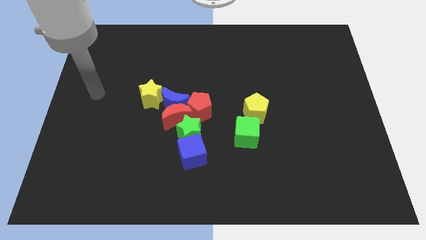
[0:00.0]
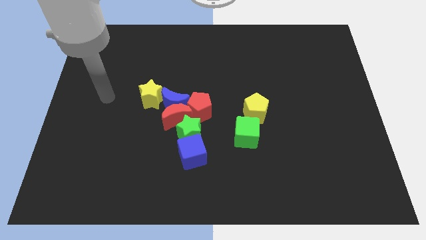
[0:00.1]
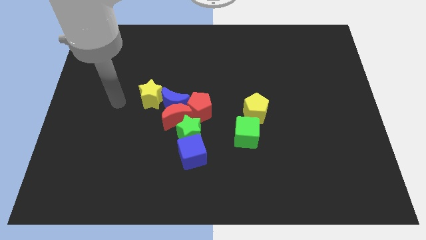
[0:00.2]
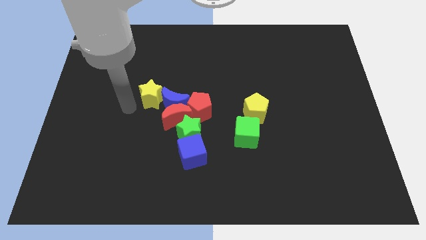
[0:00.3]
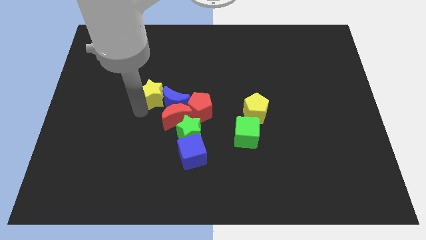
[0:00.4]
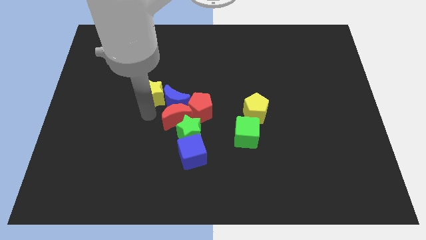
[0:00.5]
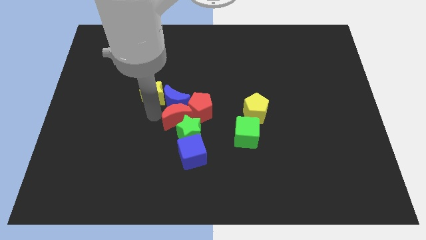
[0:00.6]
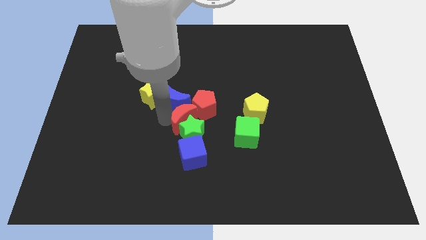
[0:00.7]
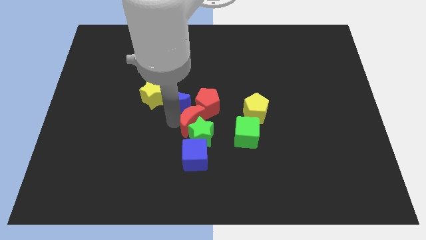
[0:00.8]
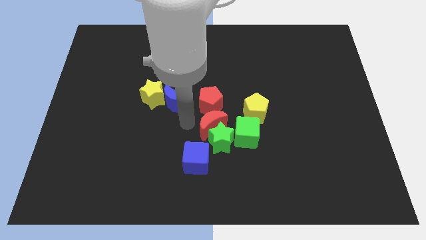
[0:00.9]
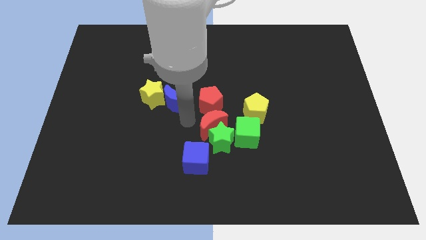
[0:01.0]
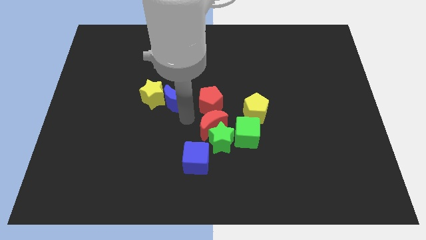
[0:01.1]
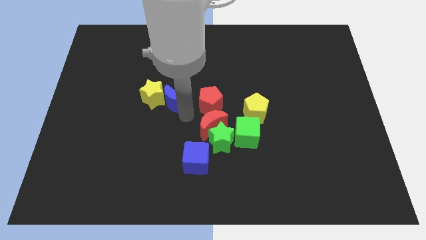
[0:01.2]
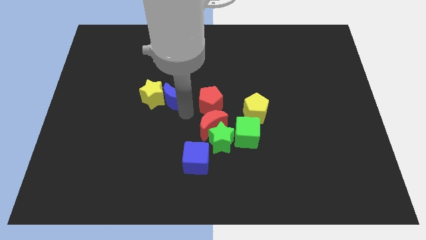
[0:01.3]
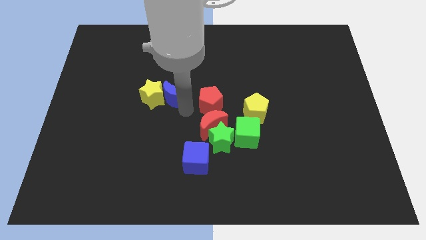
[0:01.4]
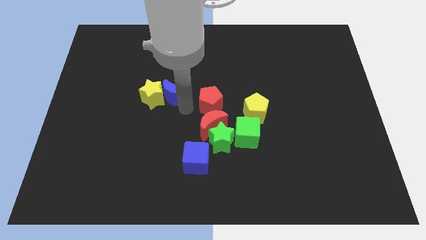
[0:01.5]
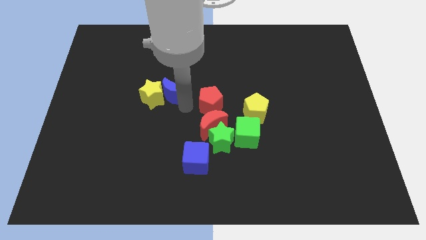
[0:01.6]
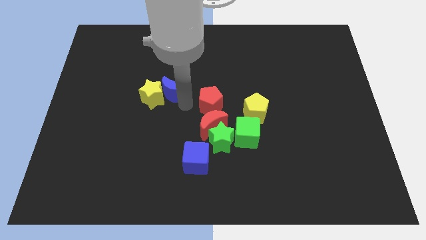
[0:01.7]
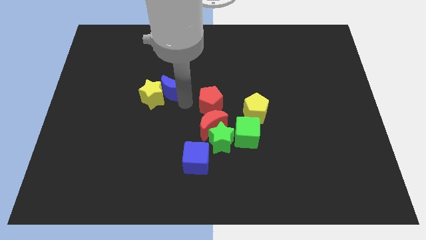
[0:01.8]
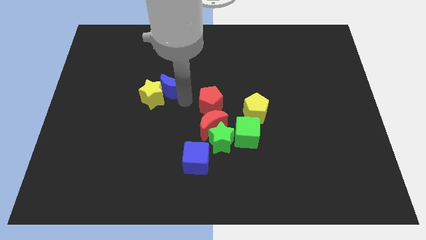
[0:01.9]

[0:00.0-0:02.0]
separate the blue moon from the clump

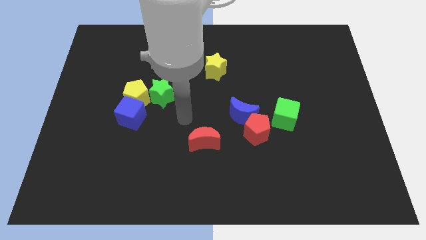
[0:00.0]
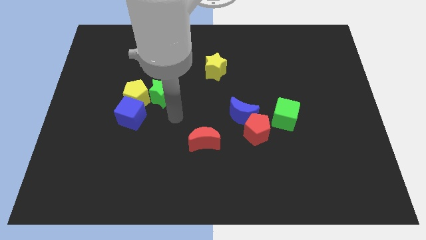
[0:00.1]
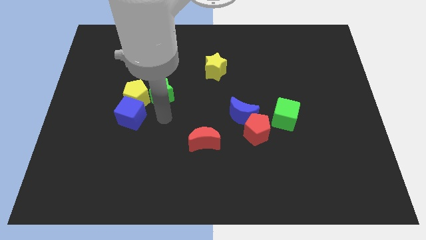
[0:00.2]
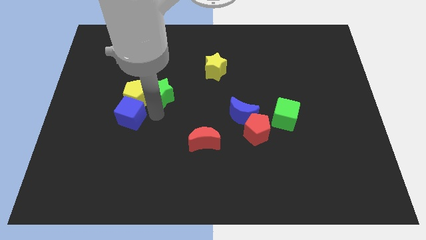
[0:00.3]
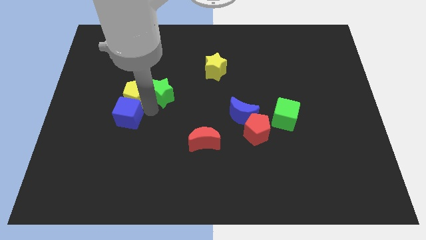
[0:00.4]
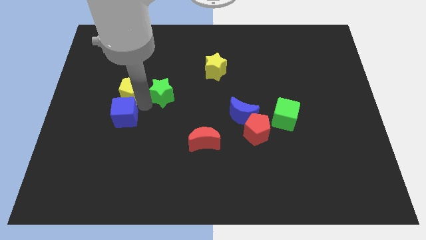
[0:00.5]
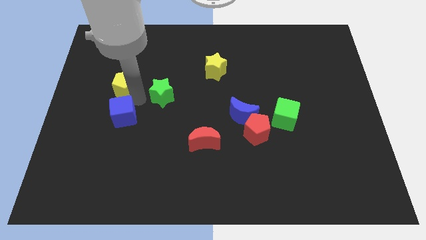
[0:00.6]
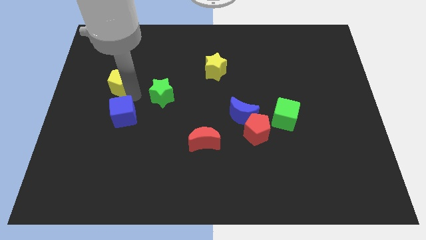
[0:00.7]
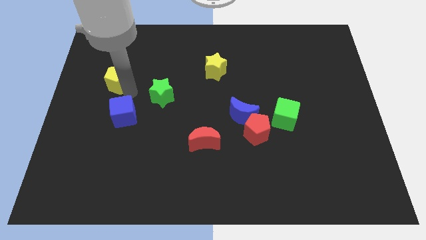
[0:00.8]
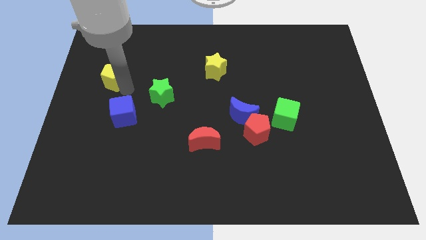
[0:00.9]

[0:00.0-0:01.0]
move the yellow pentagon away from the blue cube and green star

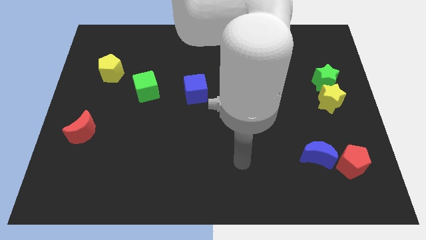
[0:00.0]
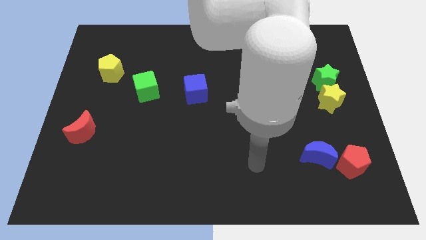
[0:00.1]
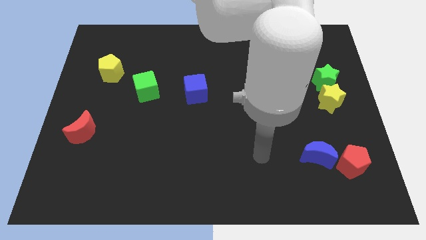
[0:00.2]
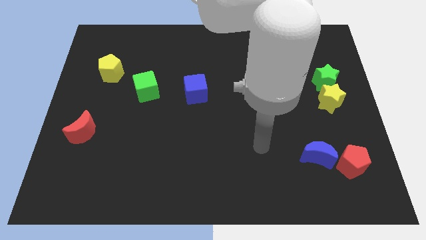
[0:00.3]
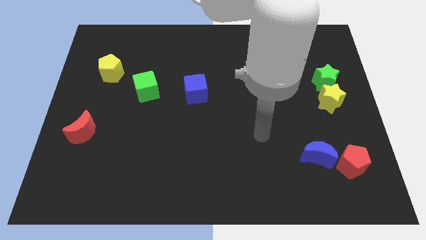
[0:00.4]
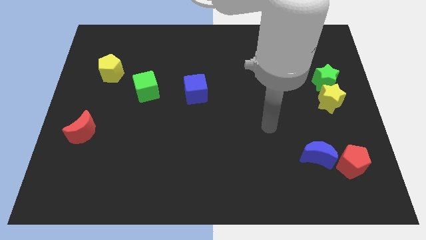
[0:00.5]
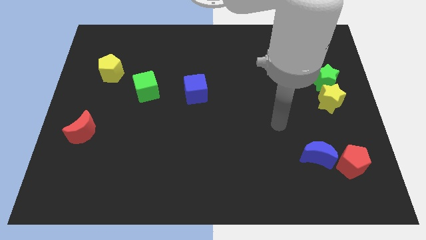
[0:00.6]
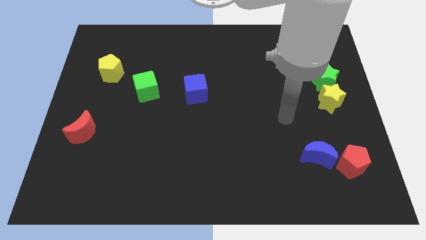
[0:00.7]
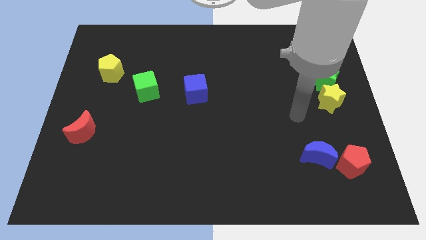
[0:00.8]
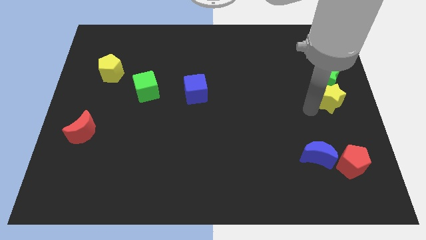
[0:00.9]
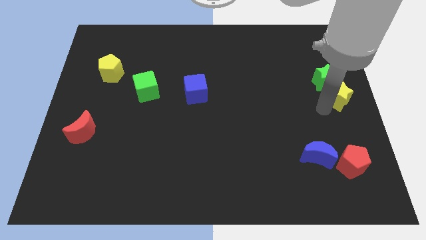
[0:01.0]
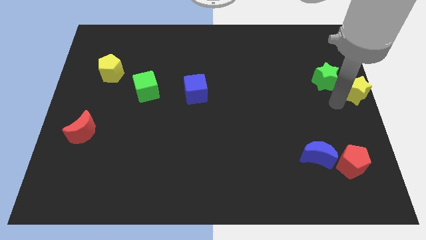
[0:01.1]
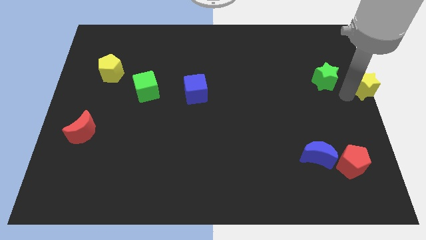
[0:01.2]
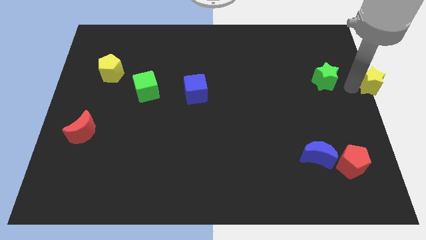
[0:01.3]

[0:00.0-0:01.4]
separate the green star from the yellow star

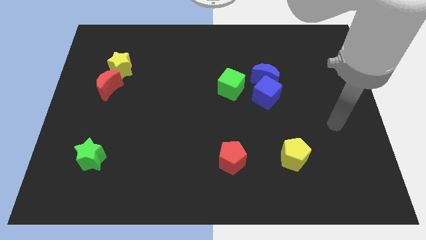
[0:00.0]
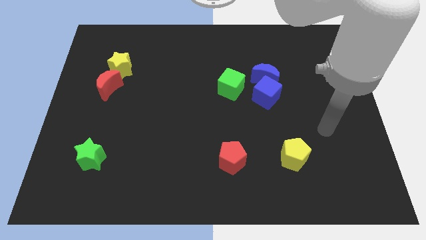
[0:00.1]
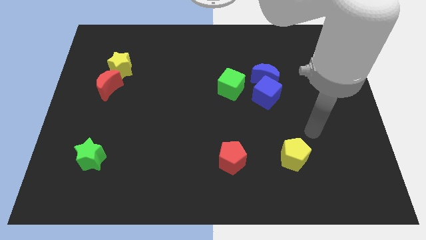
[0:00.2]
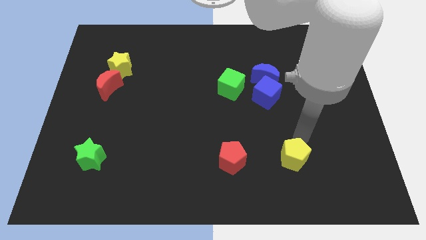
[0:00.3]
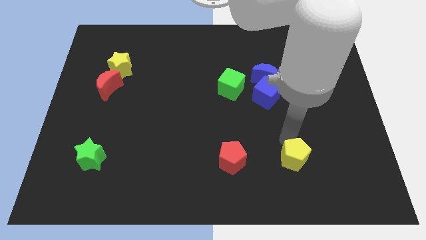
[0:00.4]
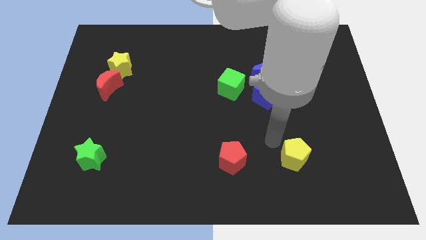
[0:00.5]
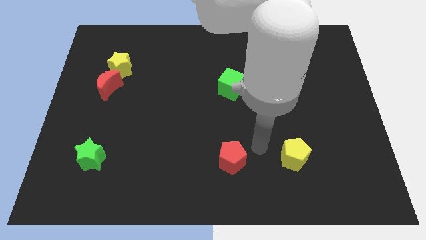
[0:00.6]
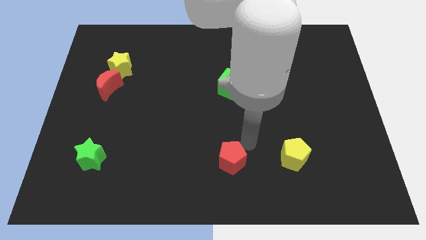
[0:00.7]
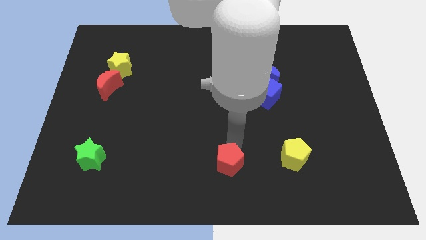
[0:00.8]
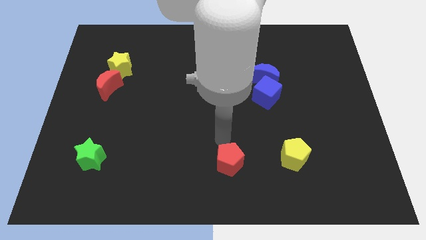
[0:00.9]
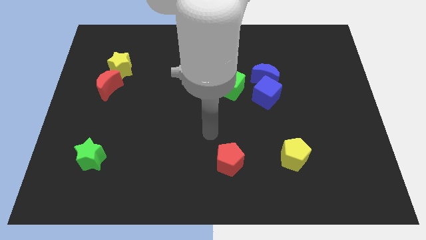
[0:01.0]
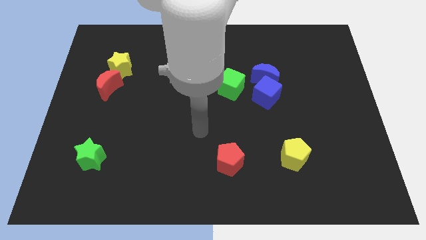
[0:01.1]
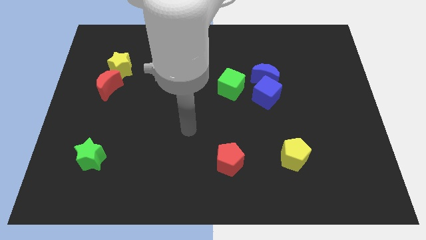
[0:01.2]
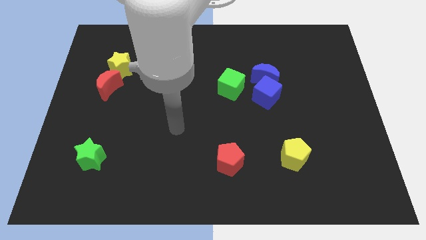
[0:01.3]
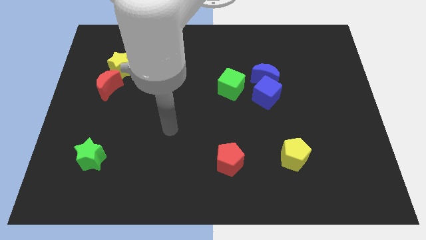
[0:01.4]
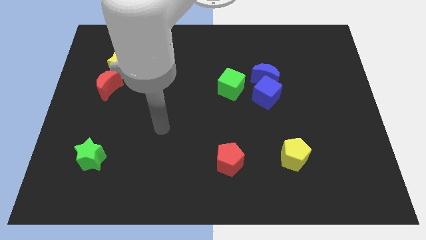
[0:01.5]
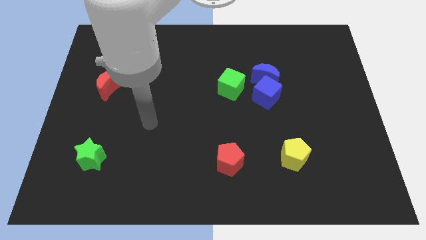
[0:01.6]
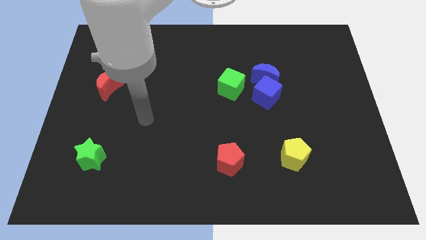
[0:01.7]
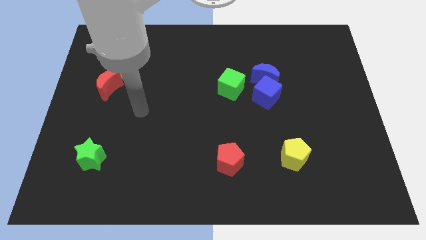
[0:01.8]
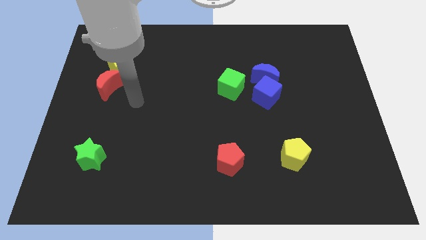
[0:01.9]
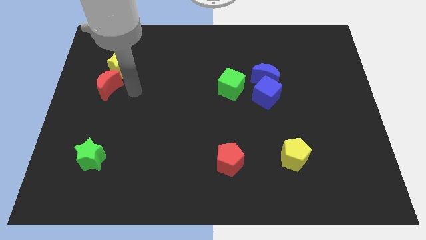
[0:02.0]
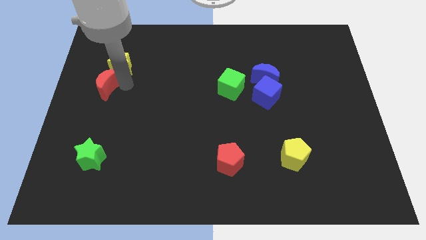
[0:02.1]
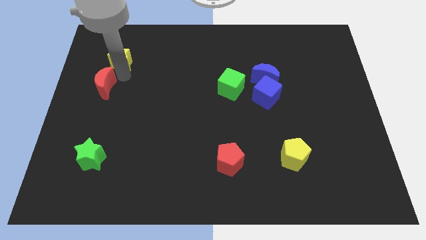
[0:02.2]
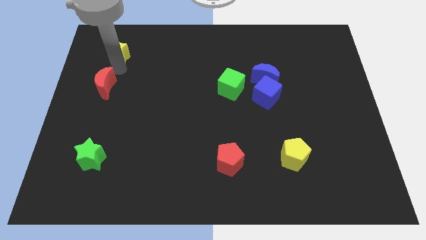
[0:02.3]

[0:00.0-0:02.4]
move the red moon away from the yellow star

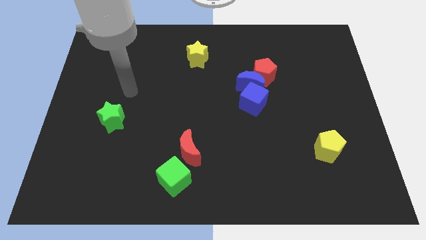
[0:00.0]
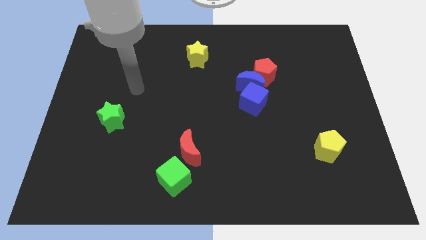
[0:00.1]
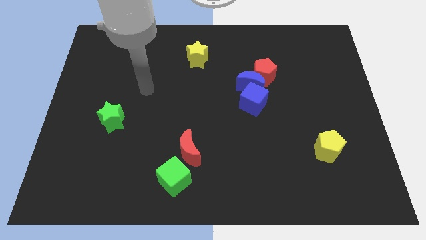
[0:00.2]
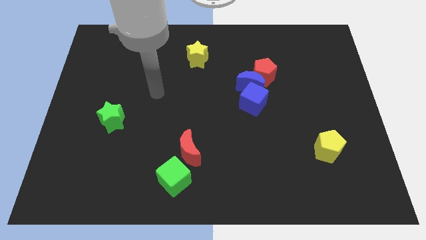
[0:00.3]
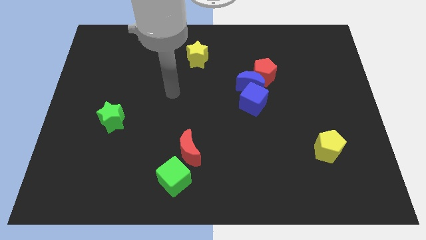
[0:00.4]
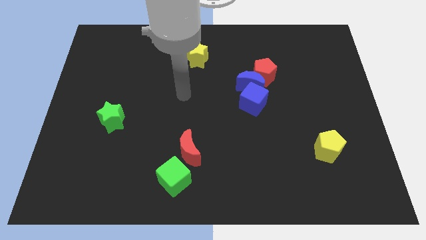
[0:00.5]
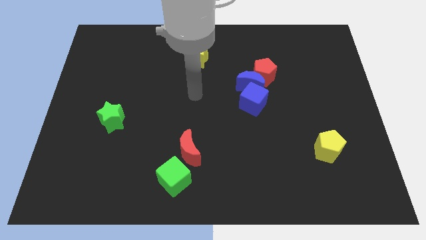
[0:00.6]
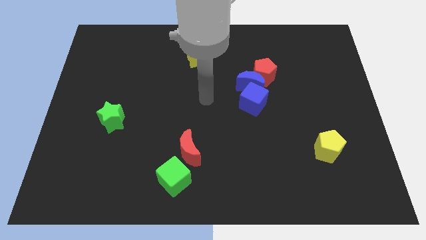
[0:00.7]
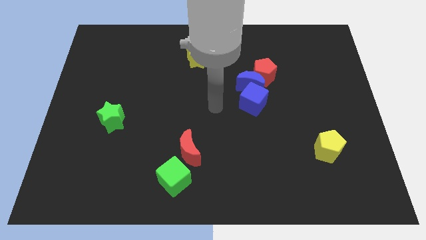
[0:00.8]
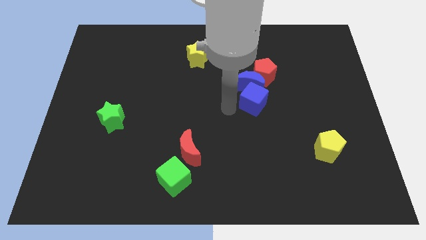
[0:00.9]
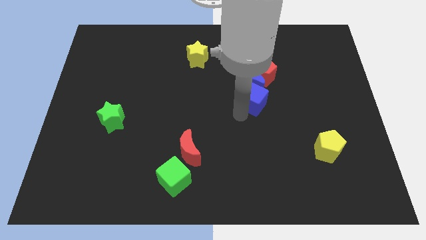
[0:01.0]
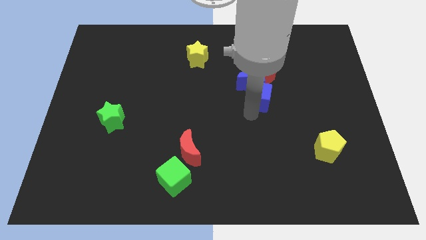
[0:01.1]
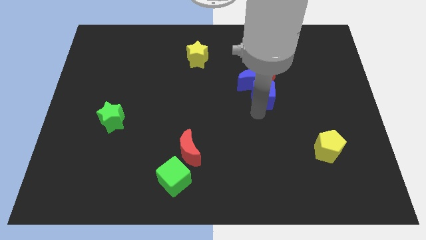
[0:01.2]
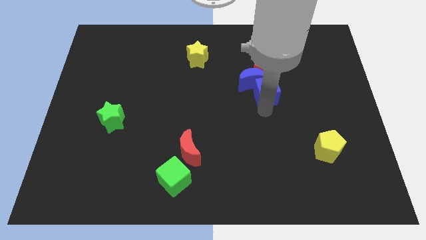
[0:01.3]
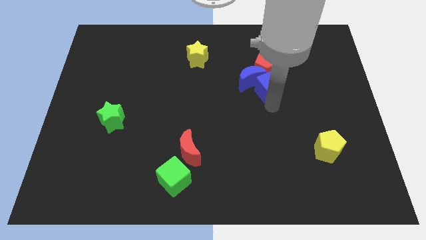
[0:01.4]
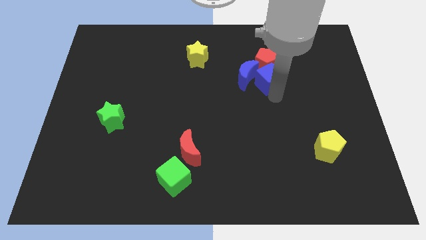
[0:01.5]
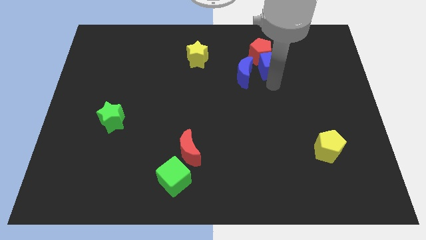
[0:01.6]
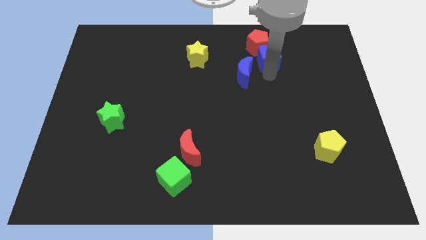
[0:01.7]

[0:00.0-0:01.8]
move the blue moon away from the red pentagon and blue cube

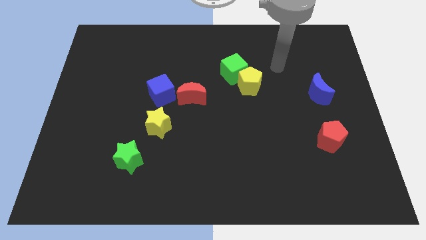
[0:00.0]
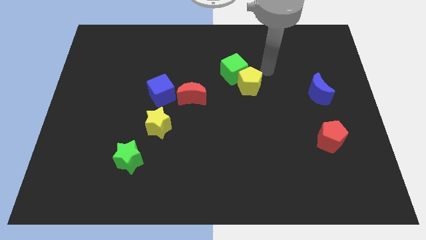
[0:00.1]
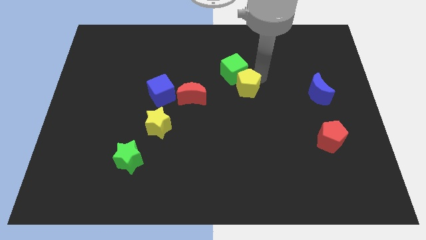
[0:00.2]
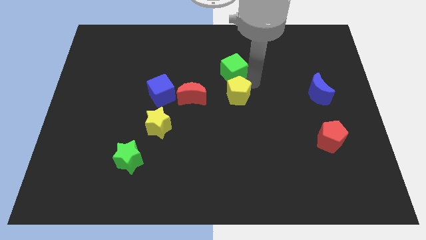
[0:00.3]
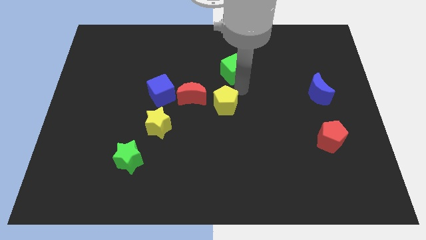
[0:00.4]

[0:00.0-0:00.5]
separate the green cube from the yellow pentagon

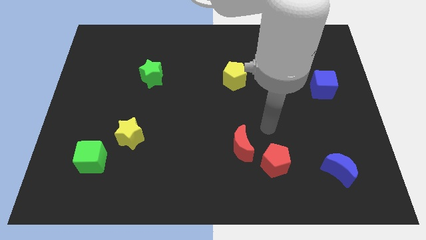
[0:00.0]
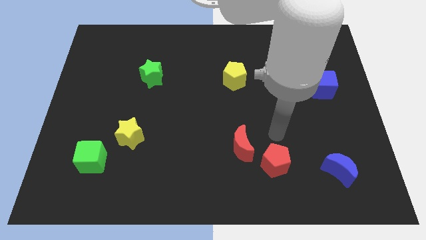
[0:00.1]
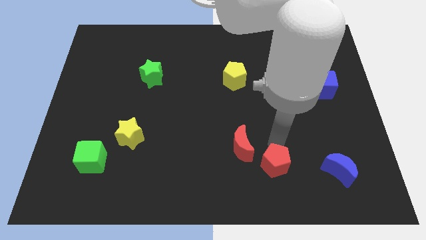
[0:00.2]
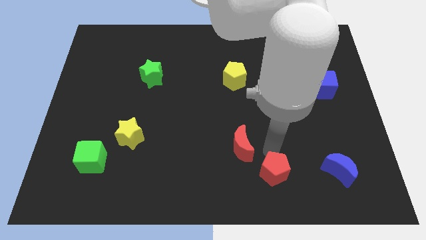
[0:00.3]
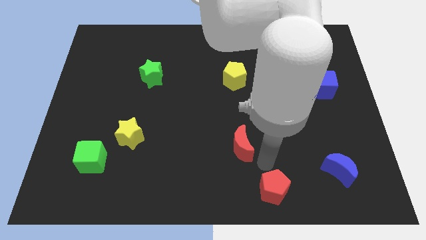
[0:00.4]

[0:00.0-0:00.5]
separate the red moon from the red pentagon
